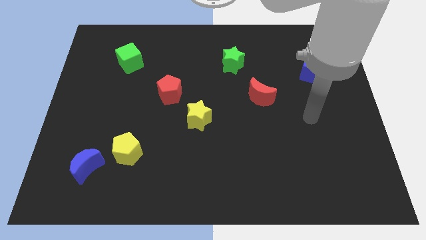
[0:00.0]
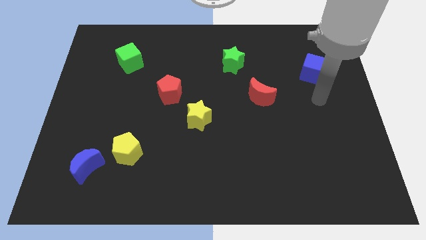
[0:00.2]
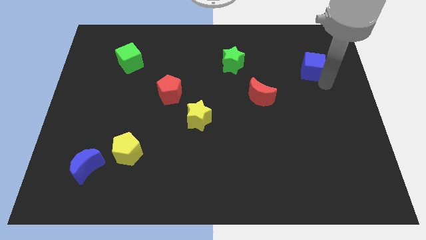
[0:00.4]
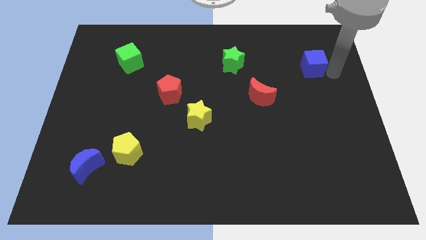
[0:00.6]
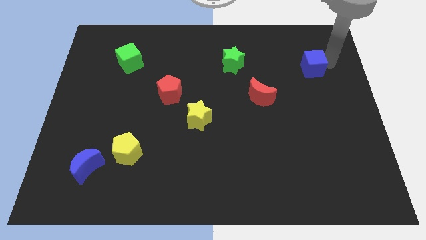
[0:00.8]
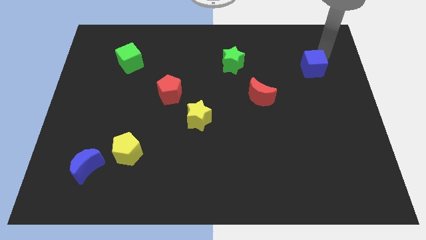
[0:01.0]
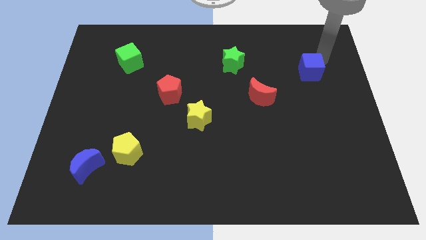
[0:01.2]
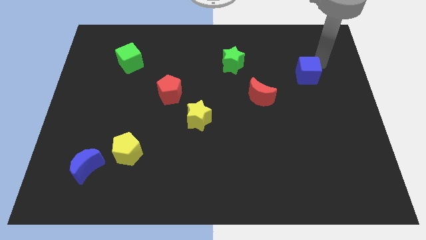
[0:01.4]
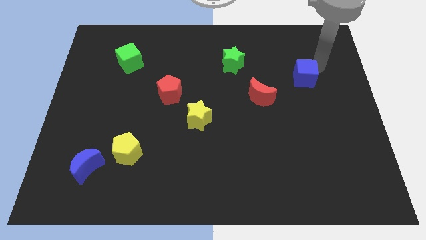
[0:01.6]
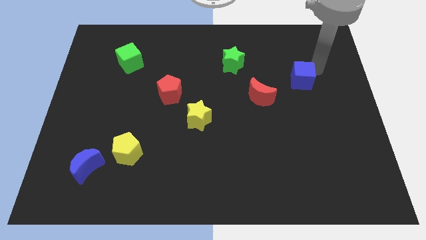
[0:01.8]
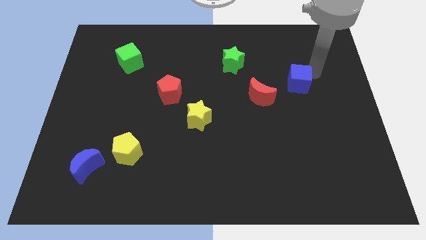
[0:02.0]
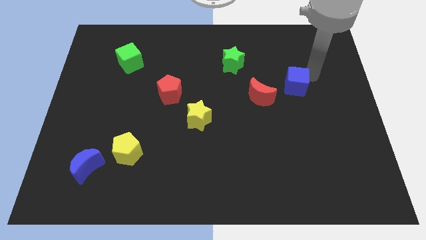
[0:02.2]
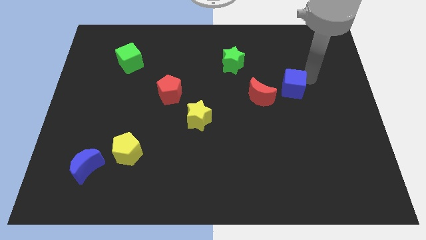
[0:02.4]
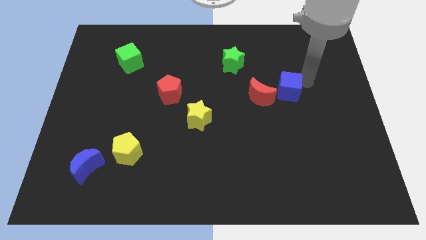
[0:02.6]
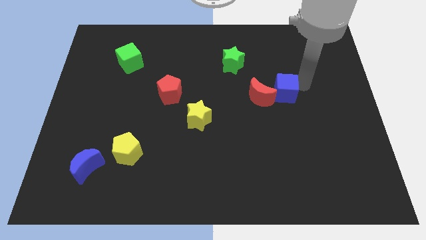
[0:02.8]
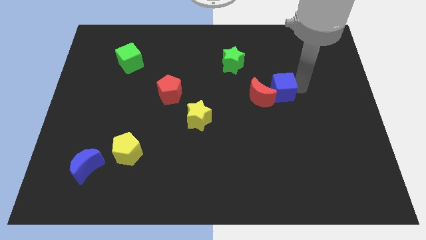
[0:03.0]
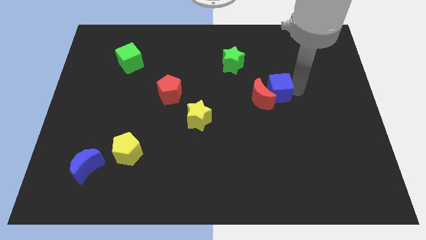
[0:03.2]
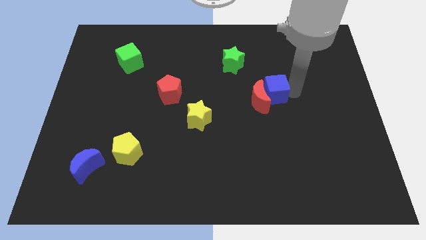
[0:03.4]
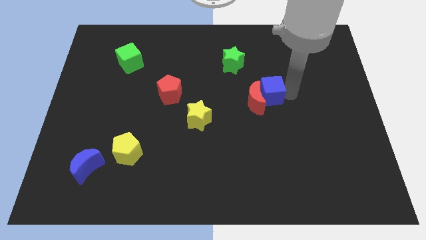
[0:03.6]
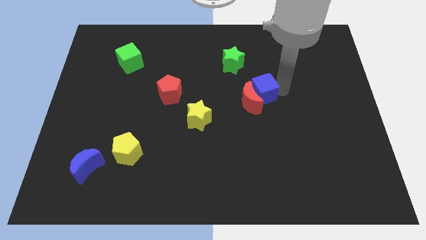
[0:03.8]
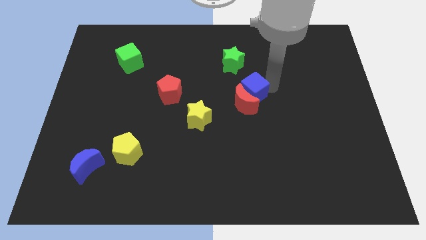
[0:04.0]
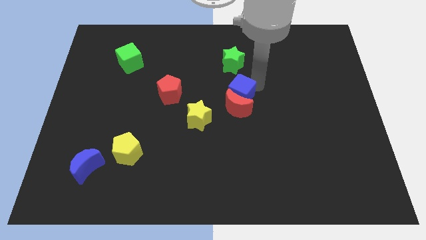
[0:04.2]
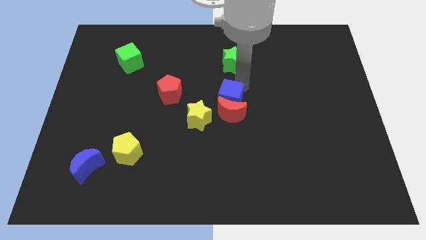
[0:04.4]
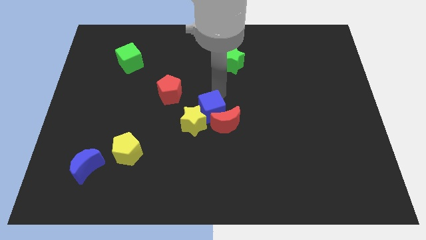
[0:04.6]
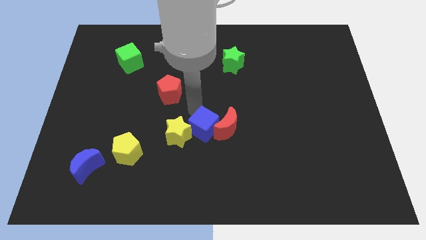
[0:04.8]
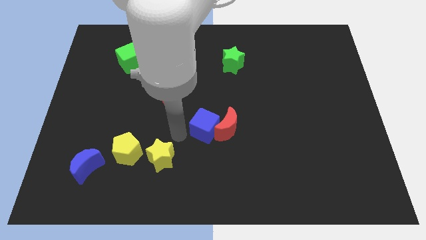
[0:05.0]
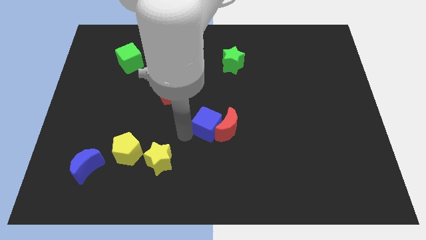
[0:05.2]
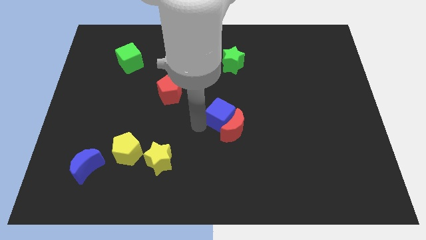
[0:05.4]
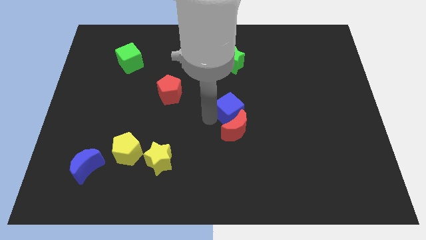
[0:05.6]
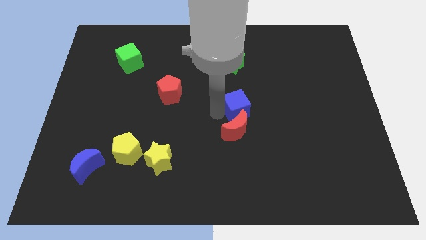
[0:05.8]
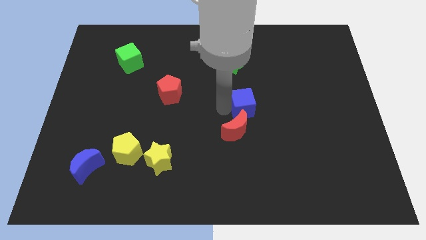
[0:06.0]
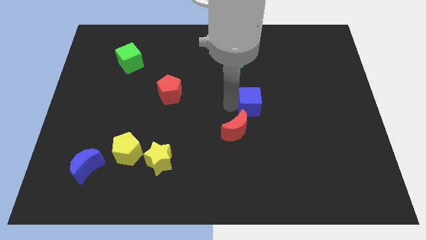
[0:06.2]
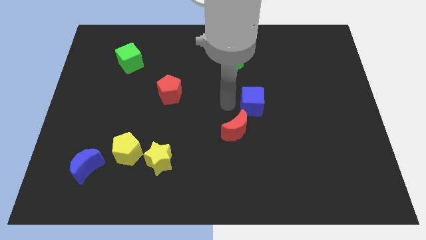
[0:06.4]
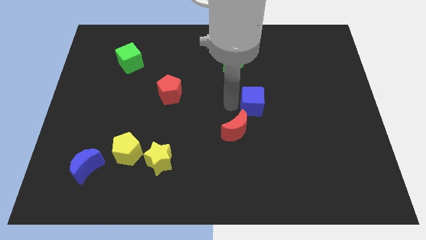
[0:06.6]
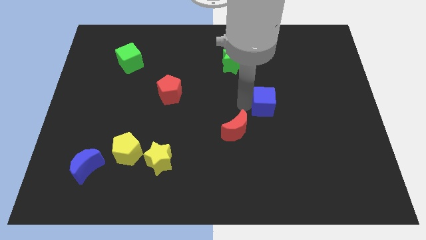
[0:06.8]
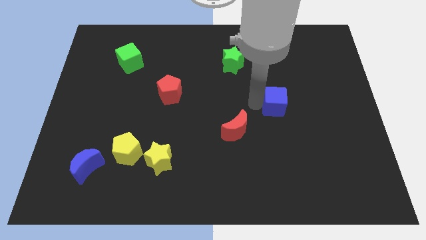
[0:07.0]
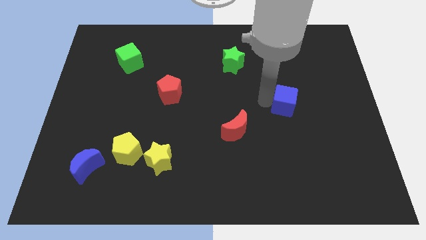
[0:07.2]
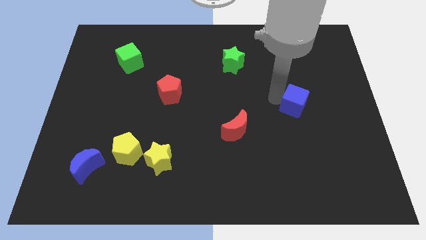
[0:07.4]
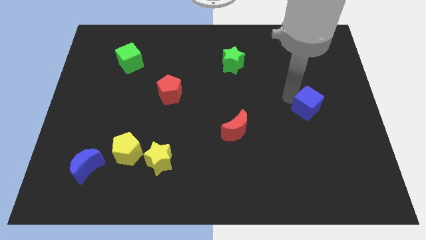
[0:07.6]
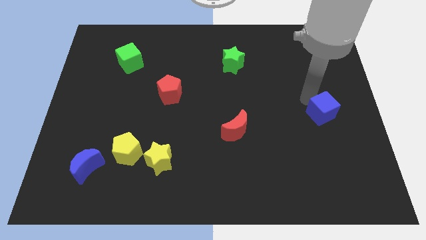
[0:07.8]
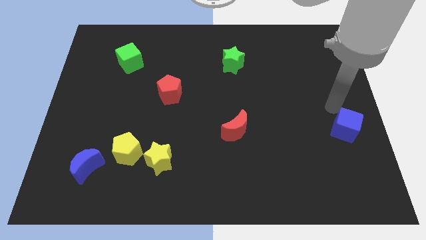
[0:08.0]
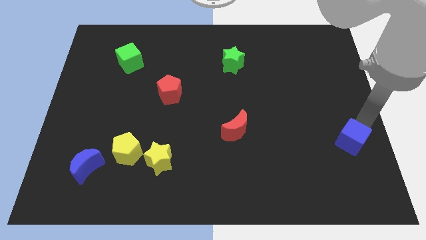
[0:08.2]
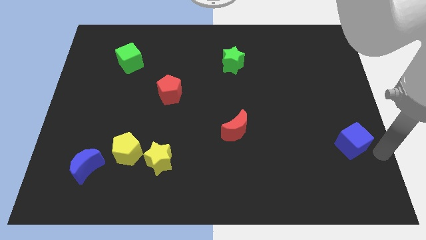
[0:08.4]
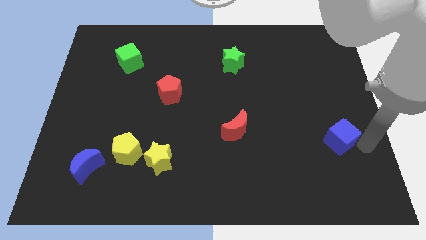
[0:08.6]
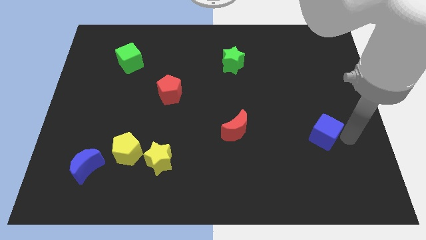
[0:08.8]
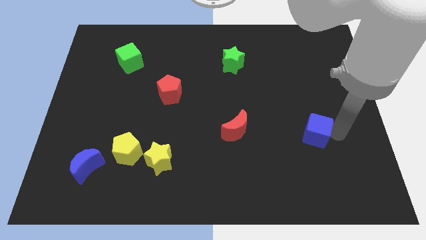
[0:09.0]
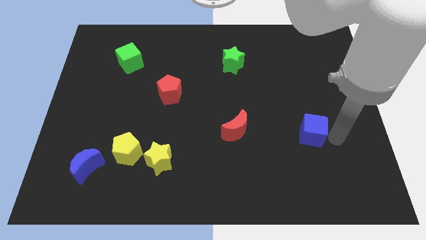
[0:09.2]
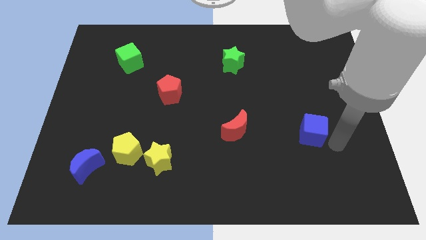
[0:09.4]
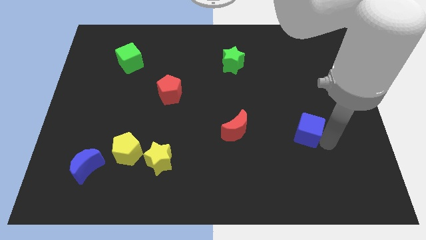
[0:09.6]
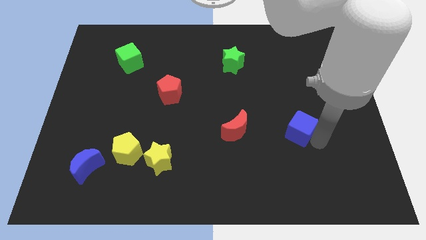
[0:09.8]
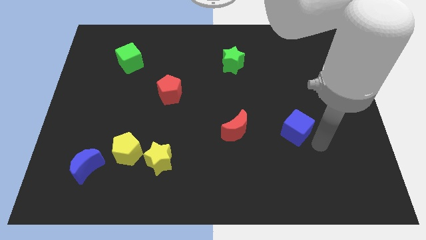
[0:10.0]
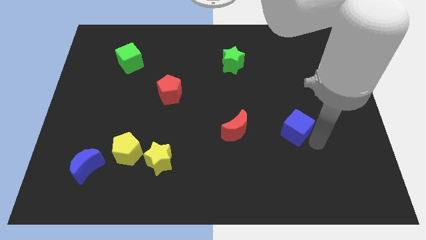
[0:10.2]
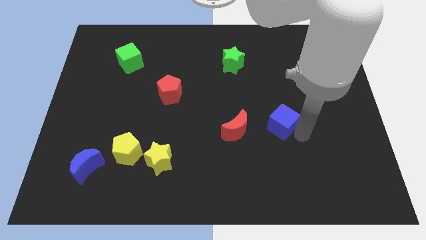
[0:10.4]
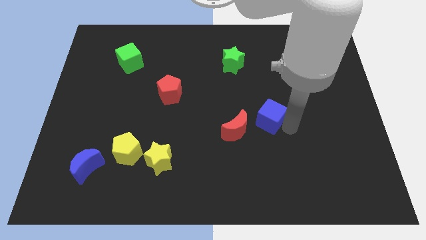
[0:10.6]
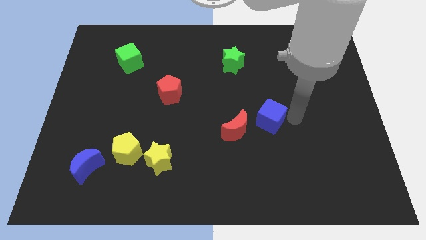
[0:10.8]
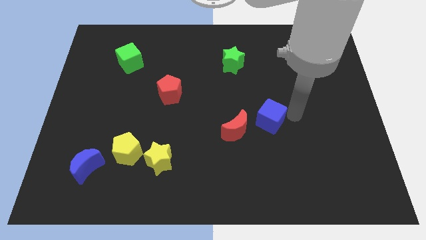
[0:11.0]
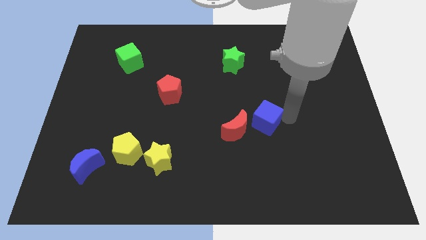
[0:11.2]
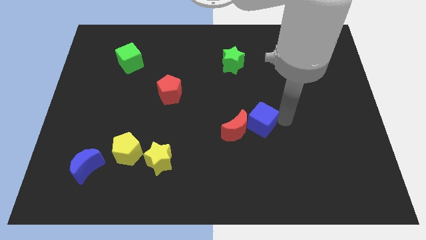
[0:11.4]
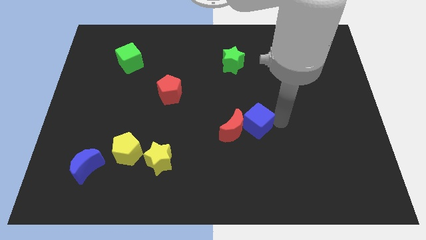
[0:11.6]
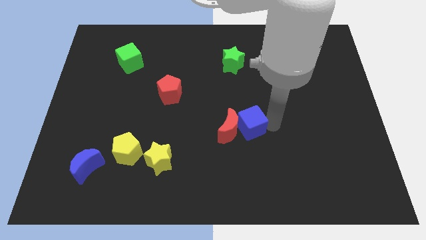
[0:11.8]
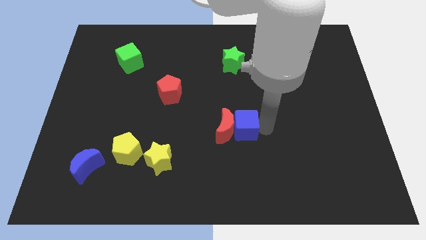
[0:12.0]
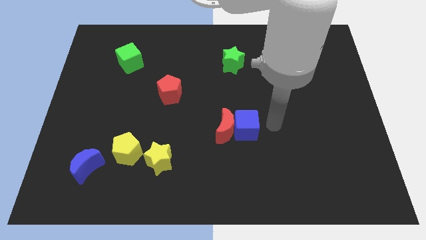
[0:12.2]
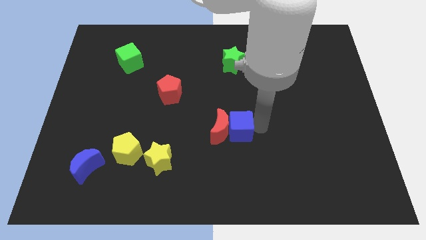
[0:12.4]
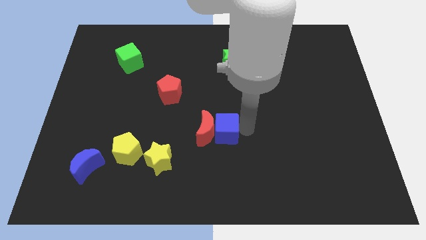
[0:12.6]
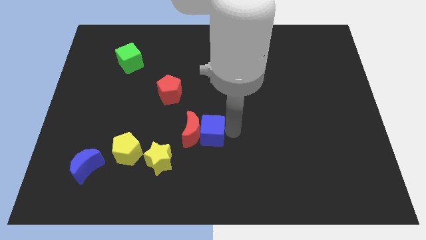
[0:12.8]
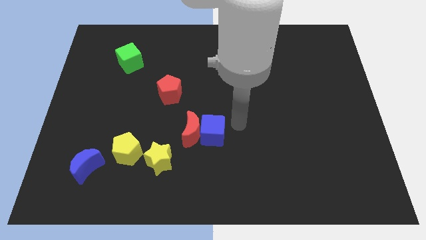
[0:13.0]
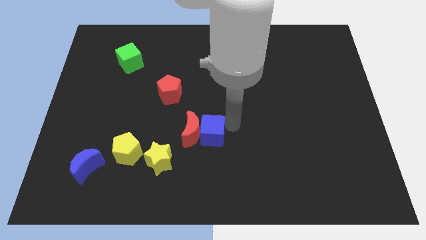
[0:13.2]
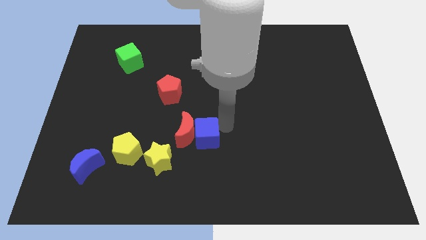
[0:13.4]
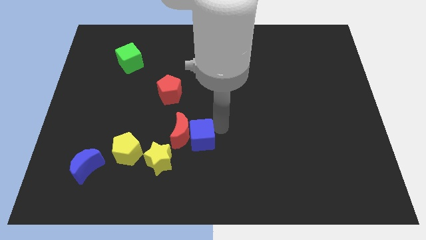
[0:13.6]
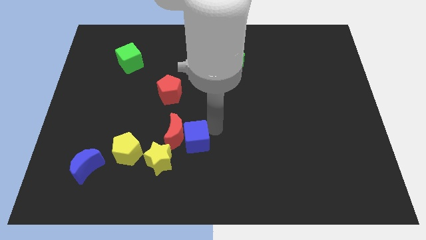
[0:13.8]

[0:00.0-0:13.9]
put the blue cube to the right of the yellow pentagon
